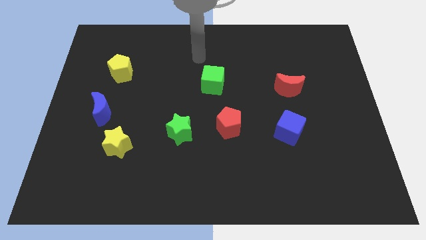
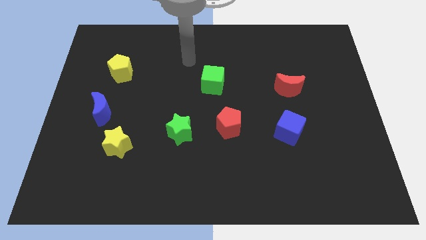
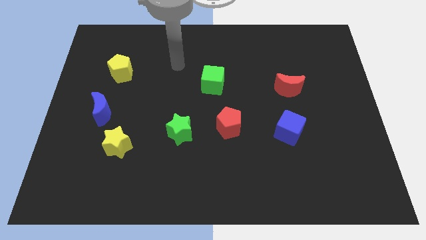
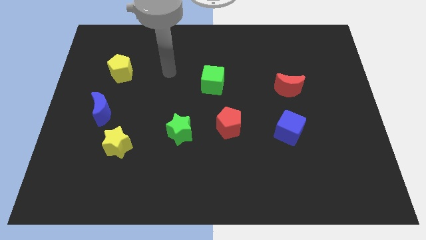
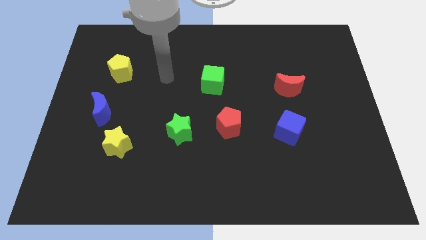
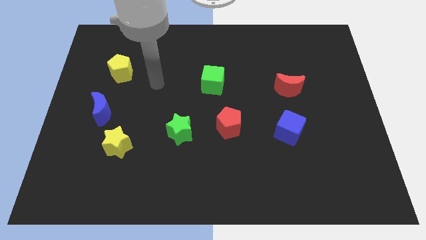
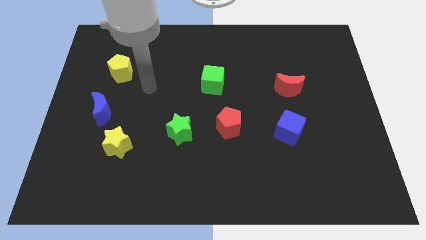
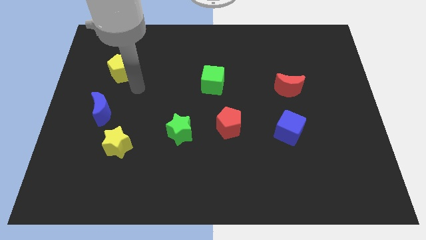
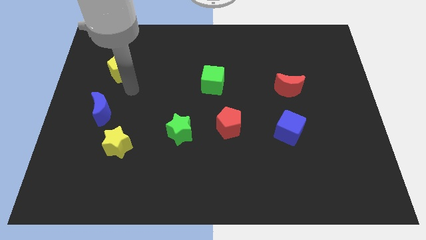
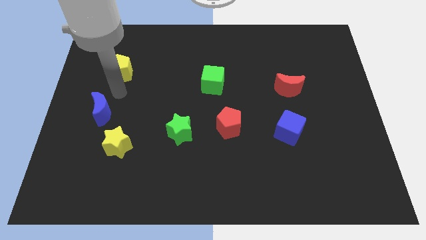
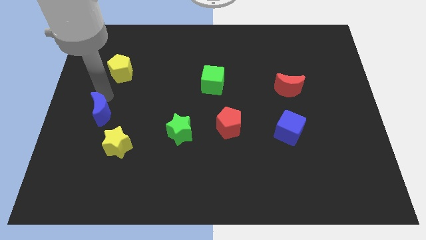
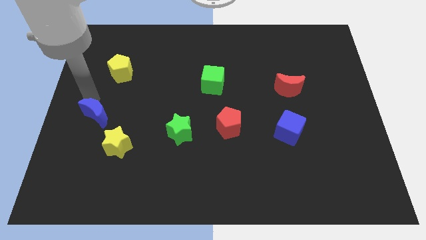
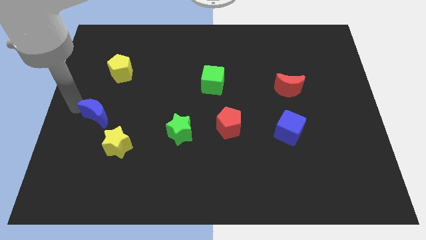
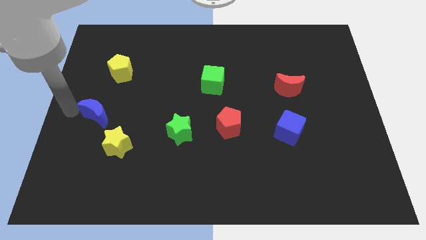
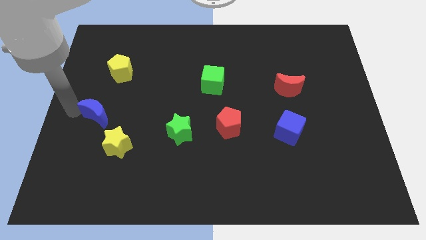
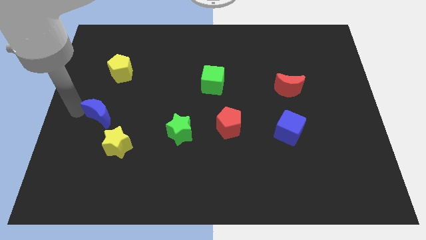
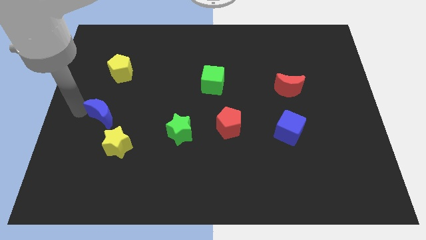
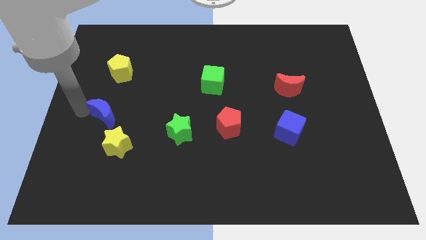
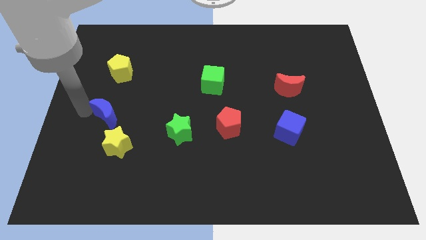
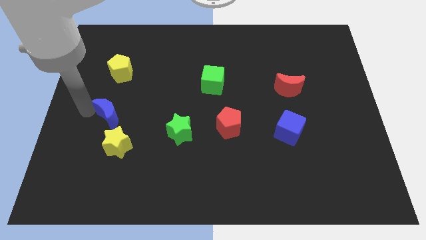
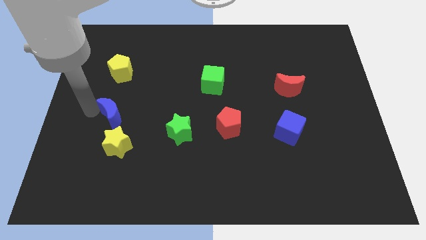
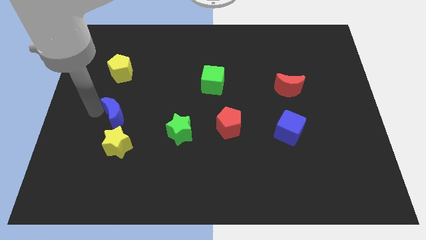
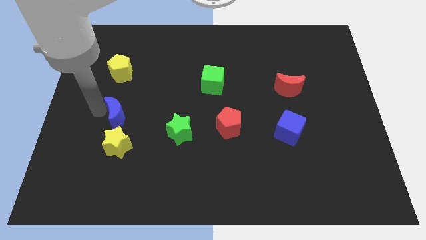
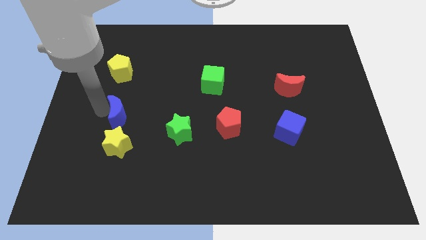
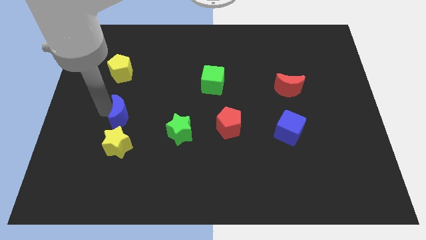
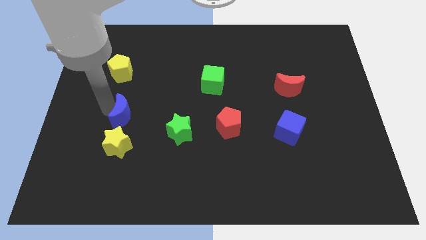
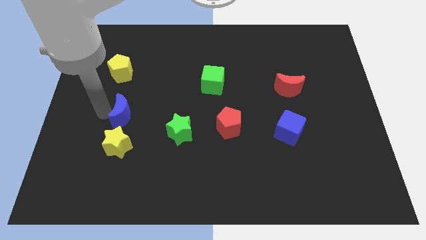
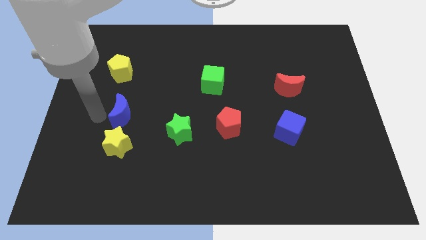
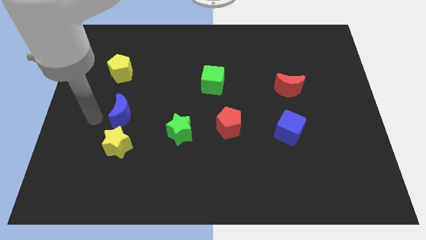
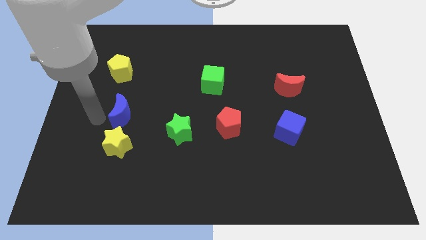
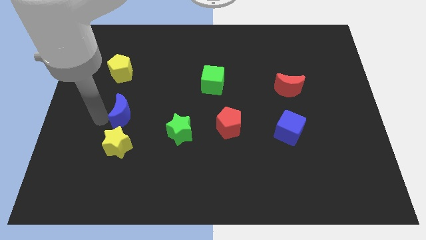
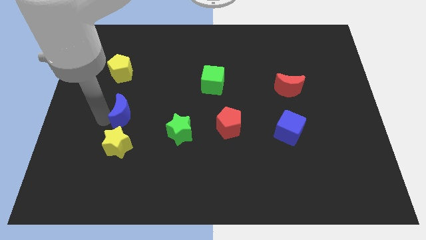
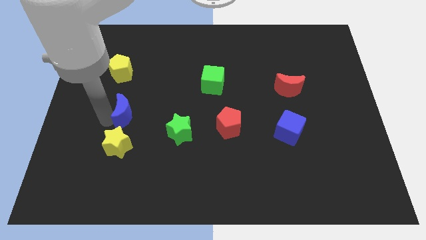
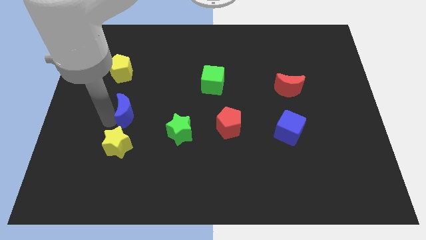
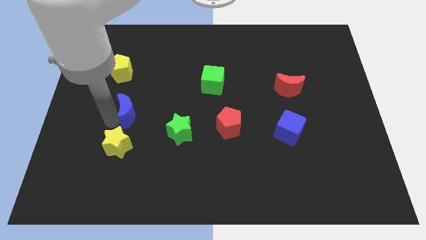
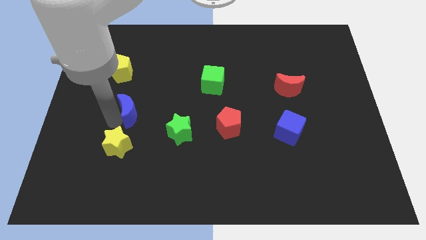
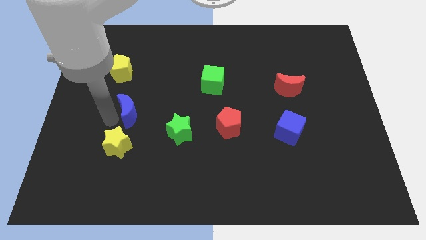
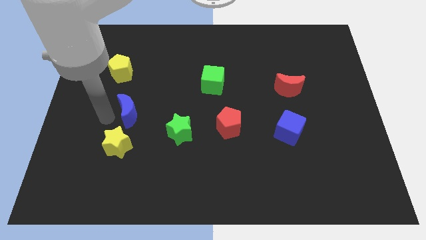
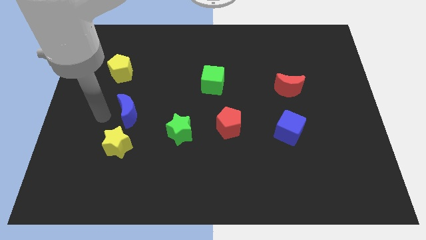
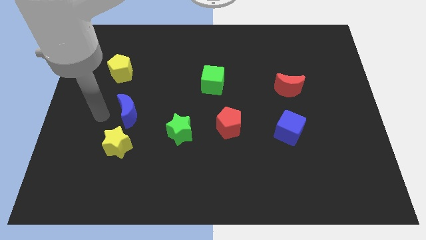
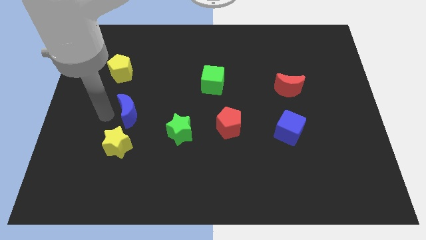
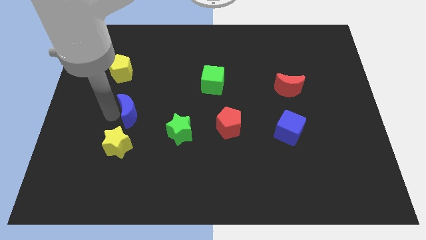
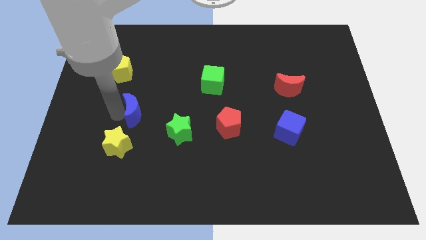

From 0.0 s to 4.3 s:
slide the blue moon a little right

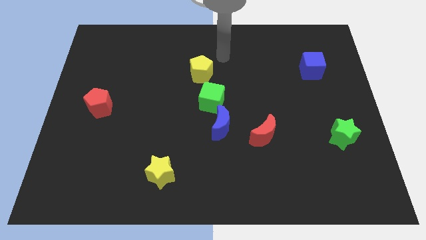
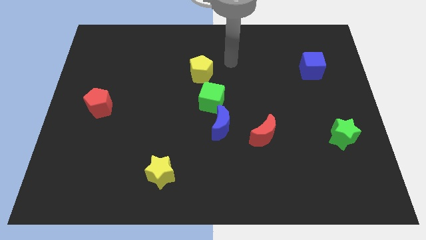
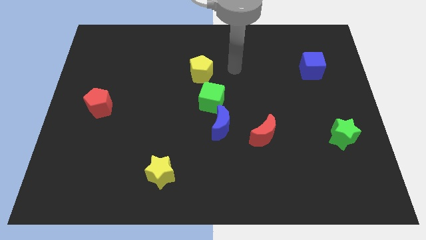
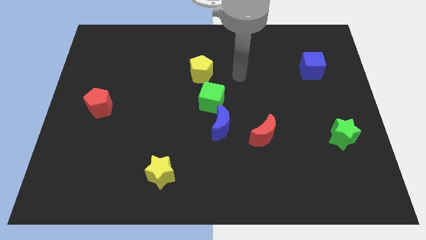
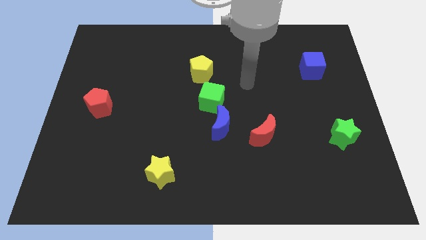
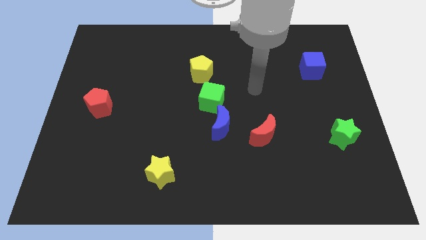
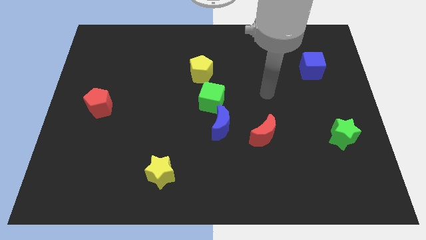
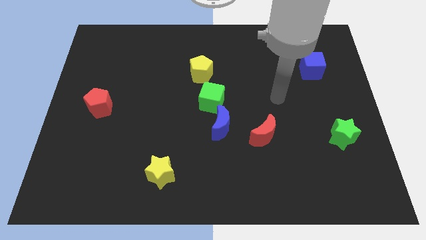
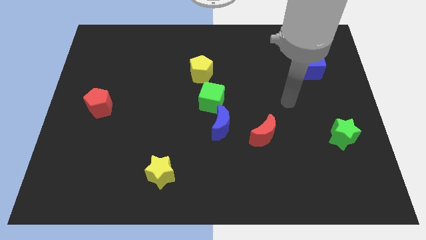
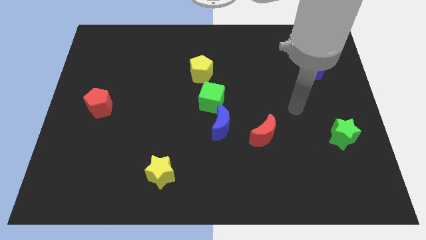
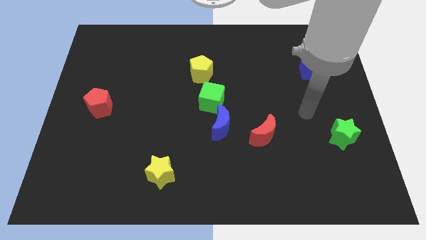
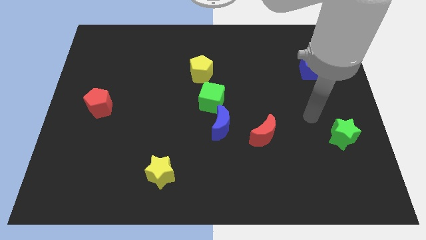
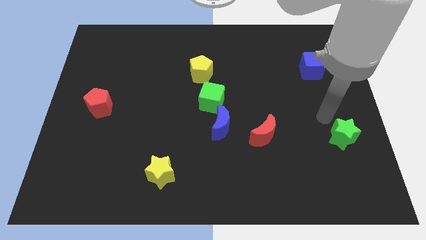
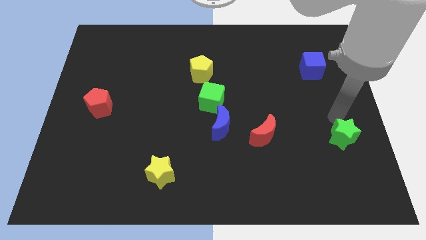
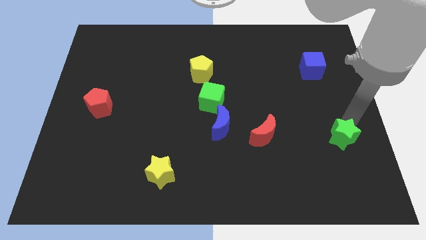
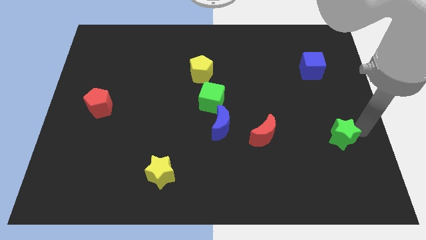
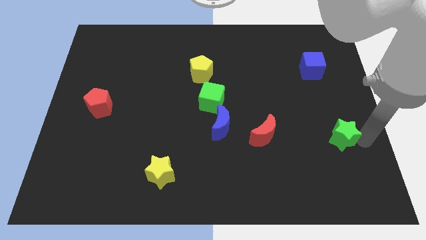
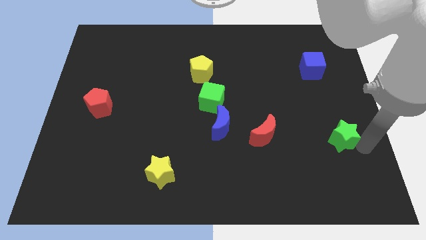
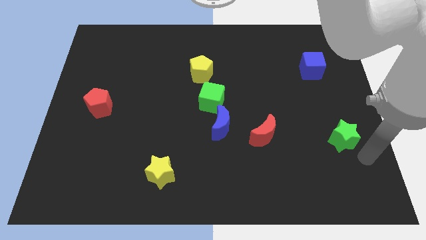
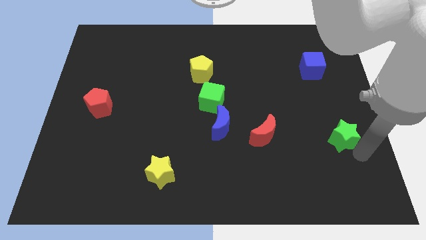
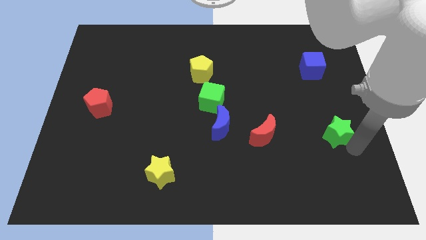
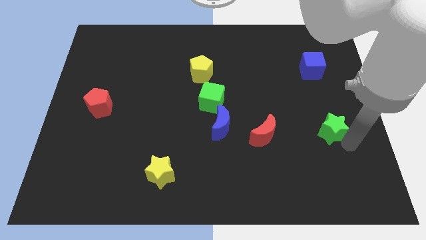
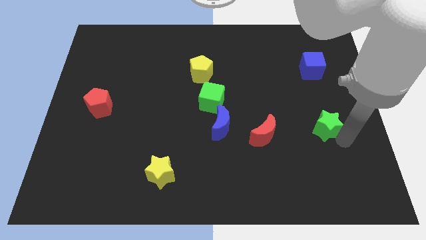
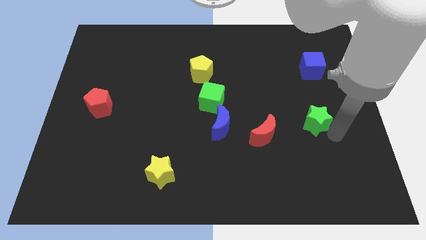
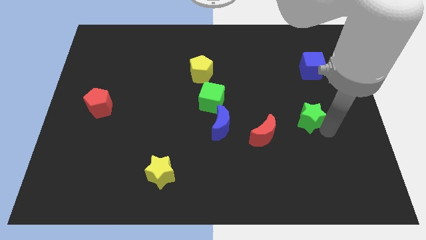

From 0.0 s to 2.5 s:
push the green star slightly diagonally upwards and to the left

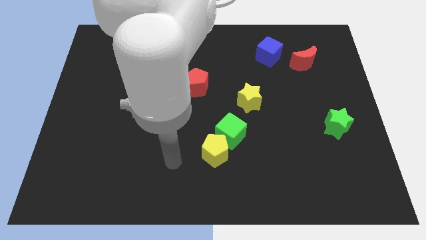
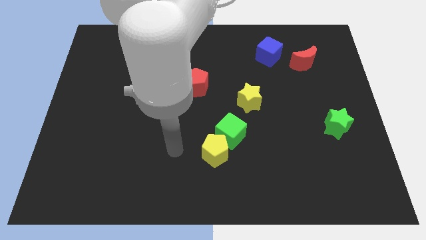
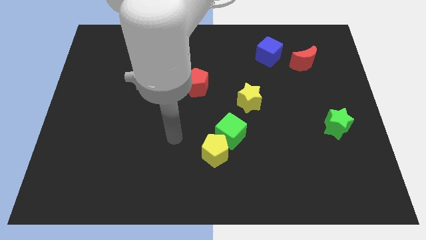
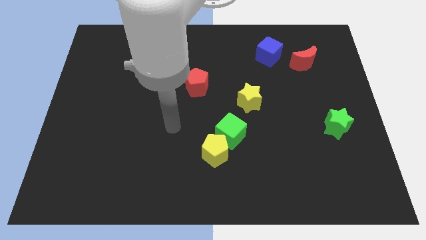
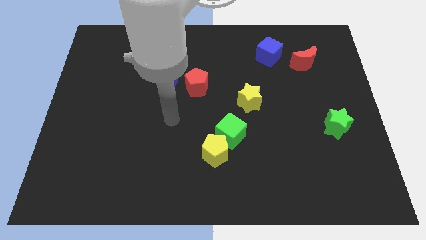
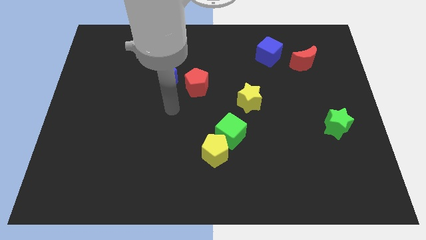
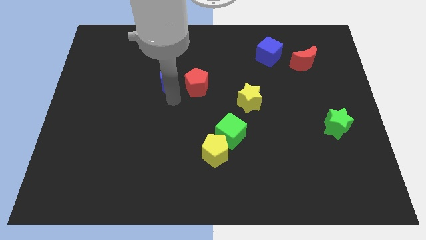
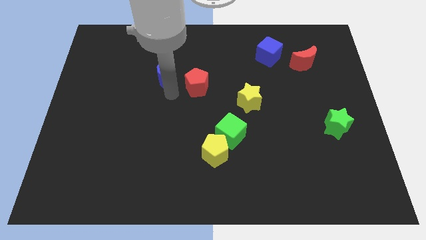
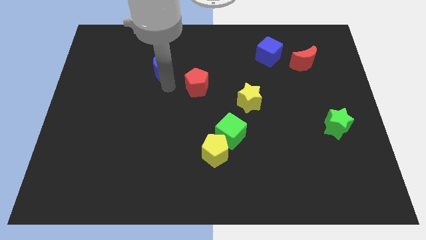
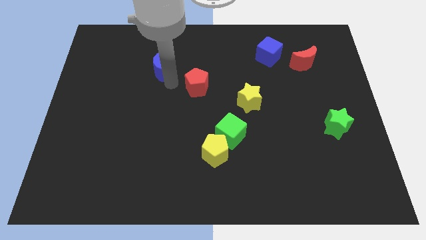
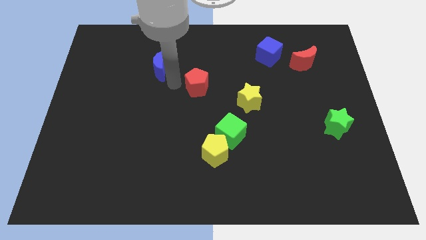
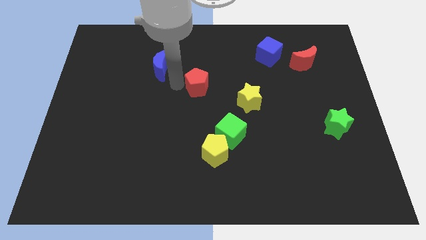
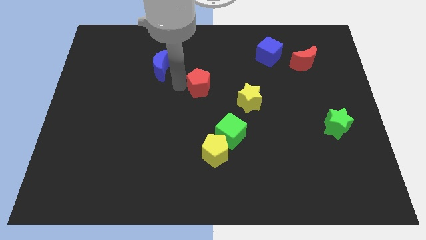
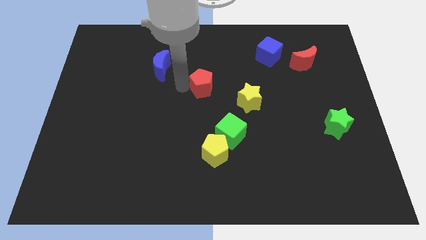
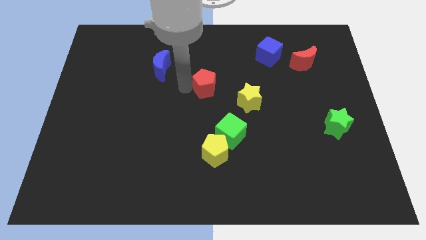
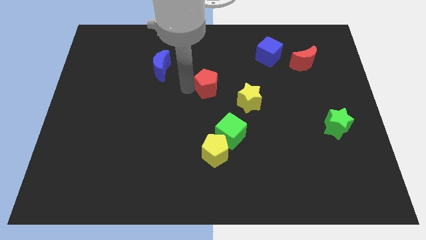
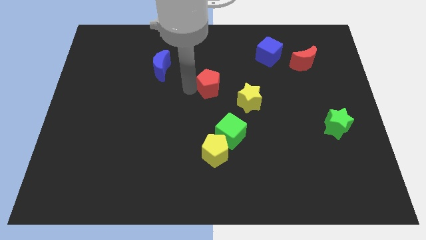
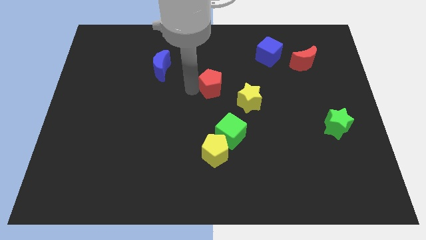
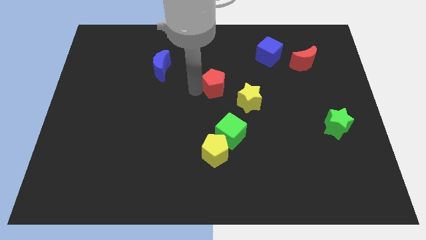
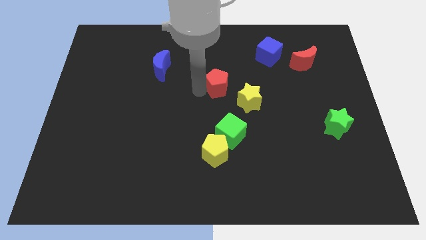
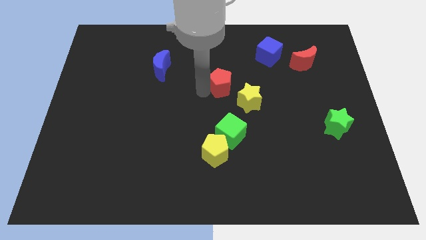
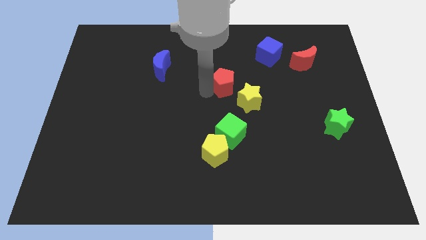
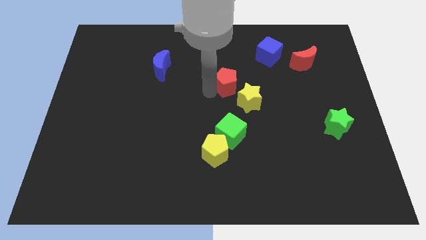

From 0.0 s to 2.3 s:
move the red pentagon right somewhat
